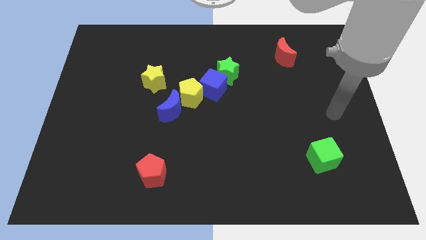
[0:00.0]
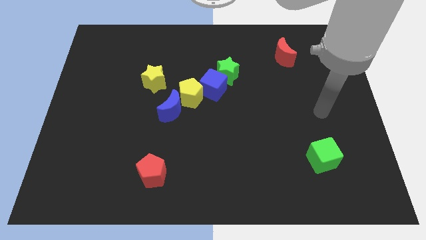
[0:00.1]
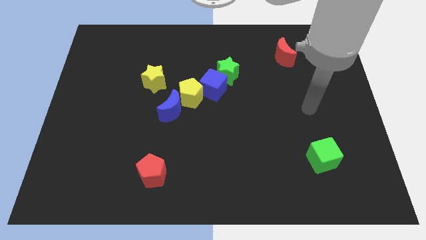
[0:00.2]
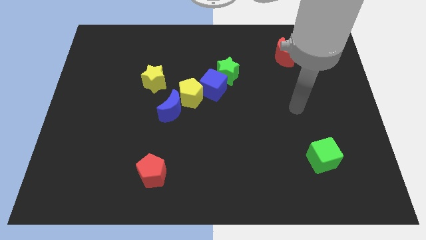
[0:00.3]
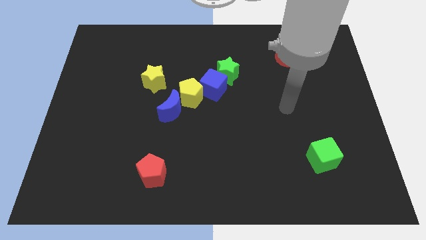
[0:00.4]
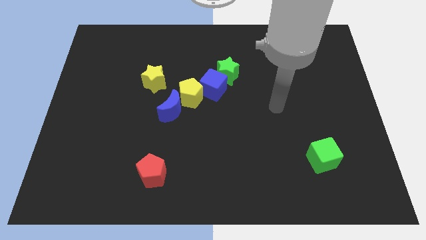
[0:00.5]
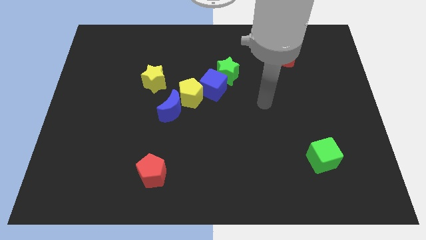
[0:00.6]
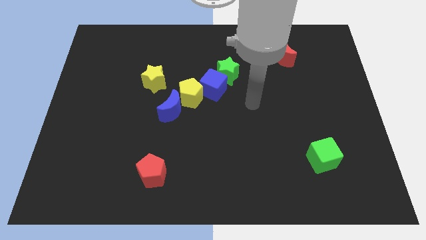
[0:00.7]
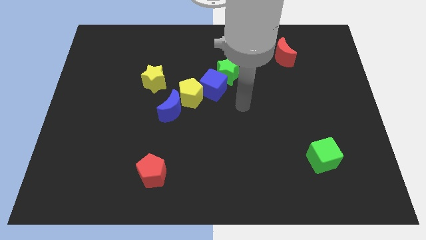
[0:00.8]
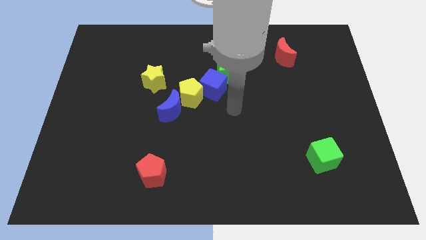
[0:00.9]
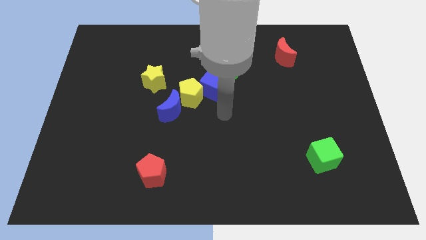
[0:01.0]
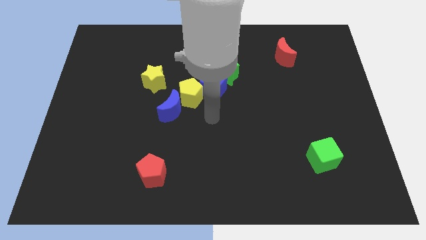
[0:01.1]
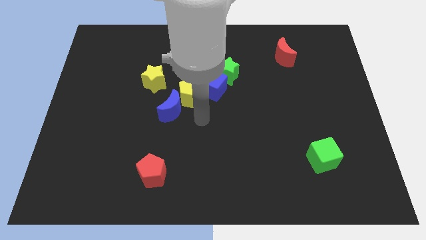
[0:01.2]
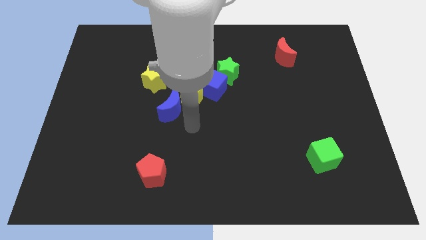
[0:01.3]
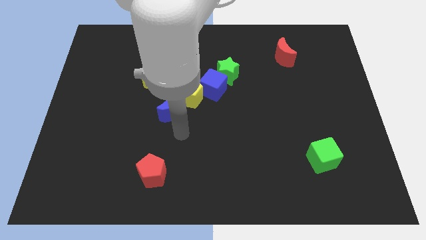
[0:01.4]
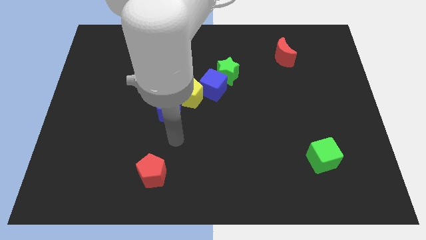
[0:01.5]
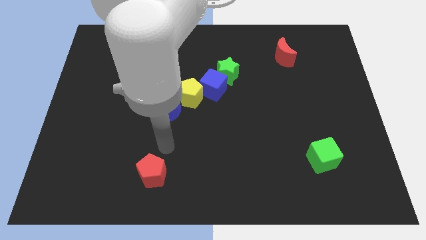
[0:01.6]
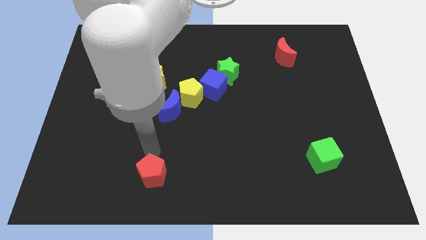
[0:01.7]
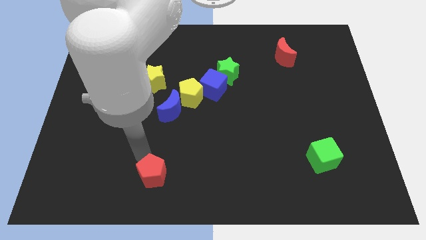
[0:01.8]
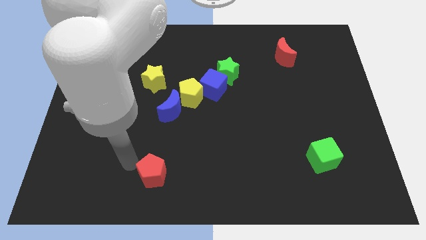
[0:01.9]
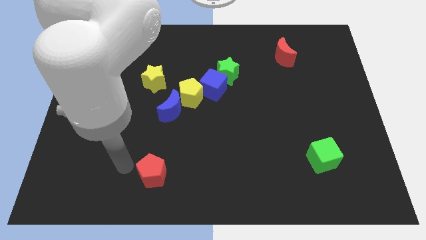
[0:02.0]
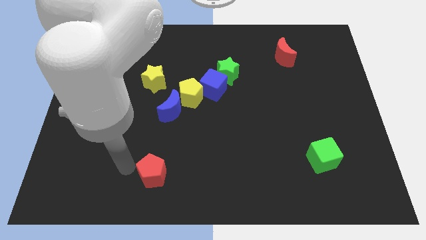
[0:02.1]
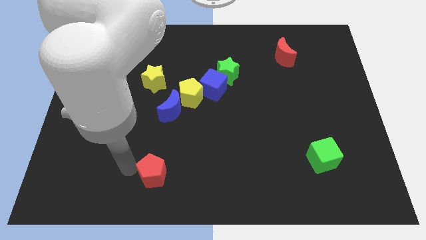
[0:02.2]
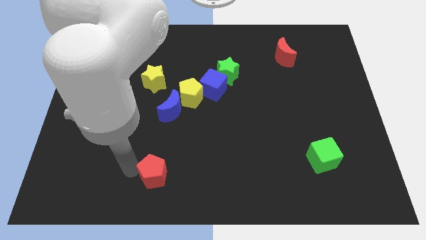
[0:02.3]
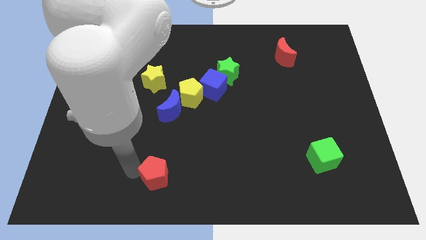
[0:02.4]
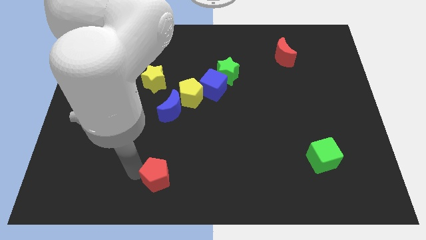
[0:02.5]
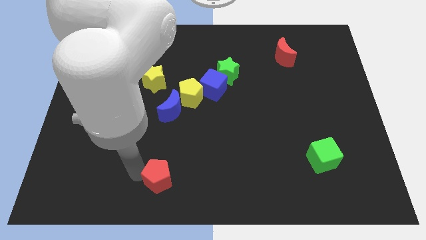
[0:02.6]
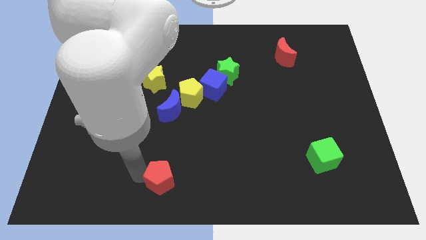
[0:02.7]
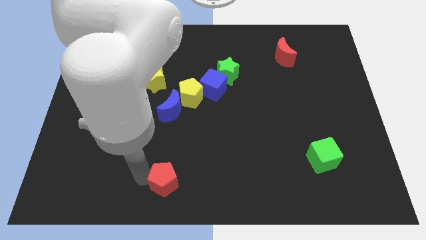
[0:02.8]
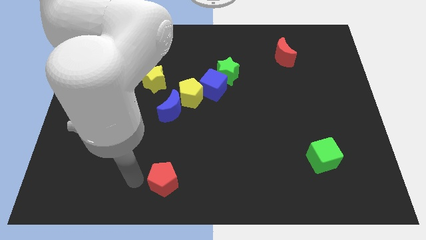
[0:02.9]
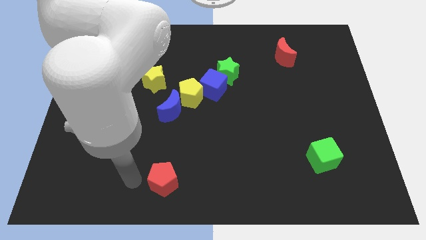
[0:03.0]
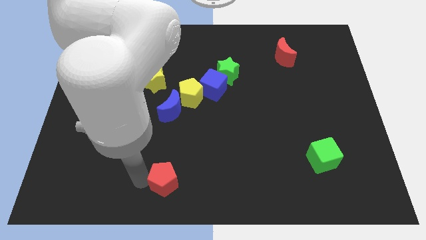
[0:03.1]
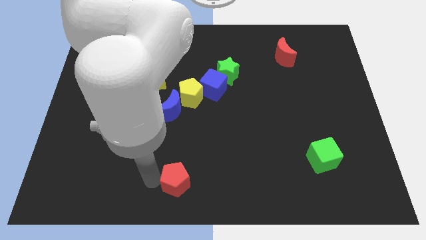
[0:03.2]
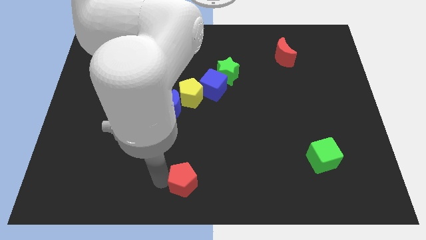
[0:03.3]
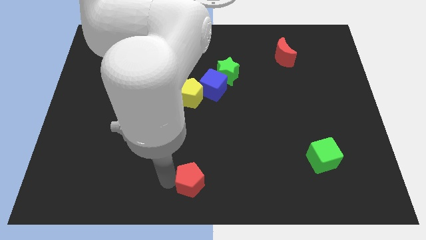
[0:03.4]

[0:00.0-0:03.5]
move the red pentagon a bit to the right

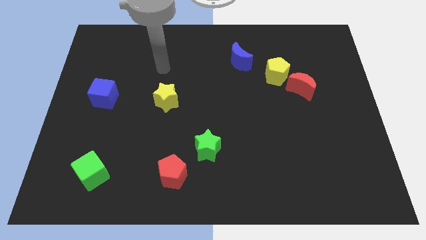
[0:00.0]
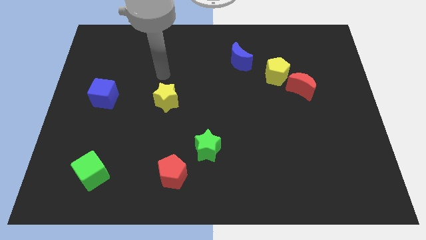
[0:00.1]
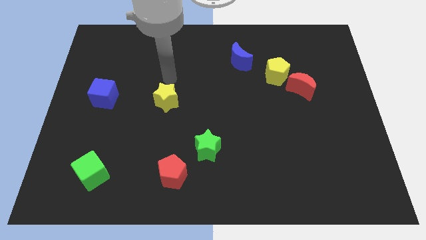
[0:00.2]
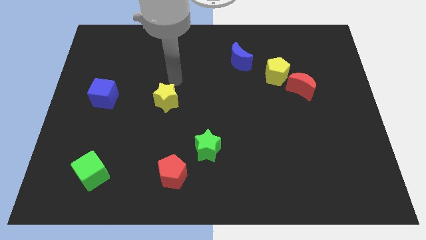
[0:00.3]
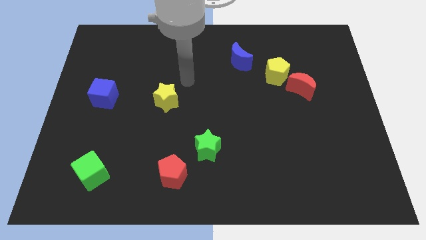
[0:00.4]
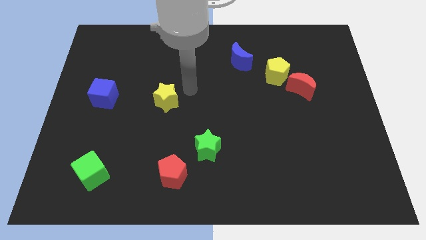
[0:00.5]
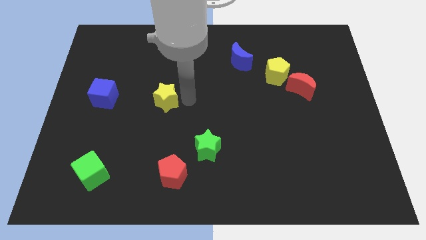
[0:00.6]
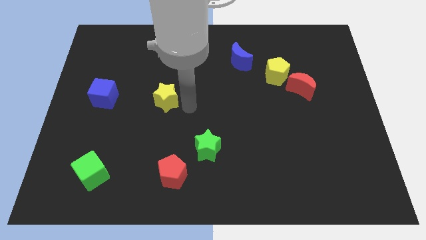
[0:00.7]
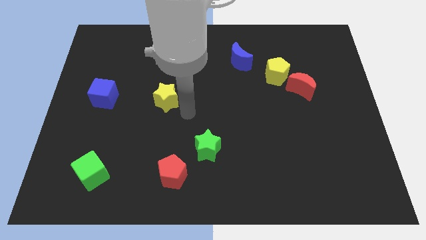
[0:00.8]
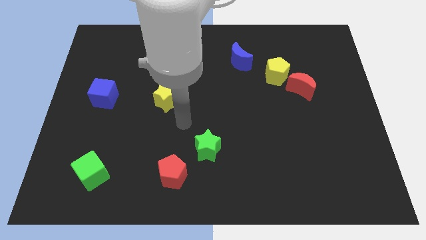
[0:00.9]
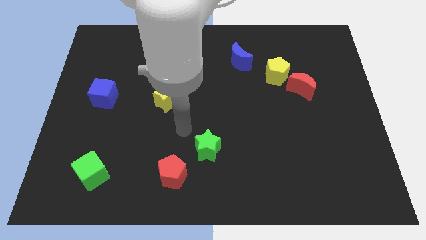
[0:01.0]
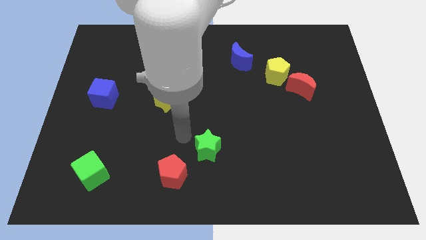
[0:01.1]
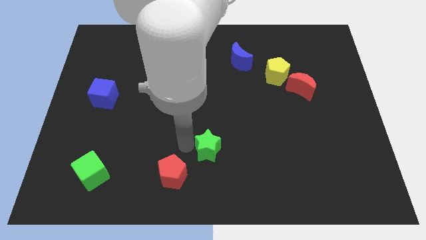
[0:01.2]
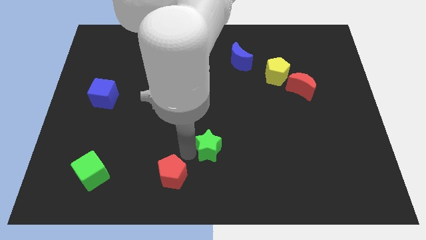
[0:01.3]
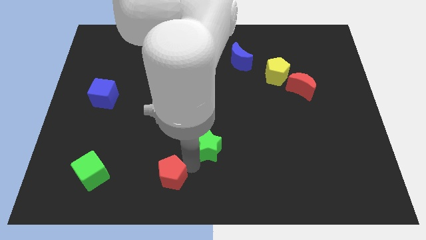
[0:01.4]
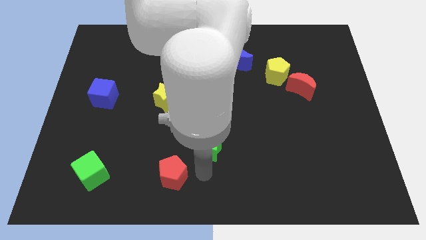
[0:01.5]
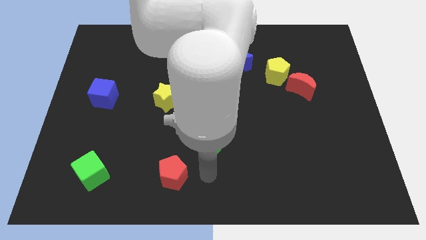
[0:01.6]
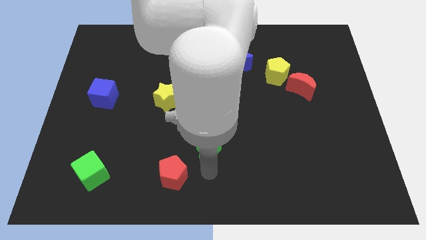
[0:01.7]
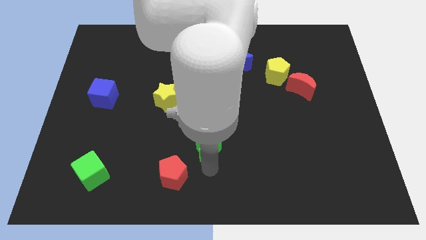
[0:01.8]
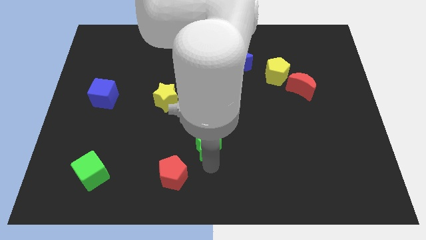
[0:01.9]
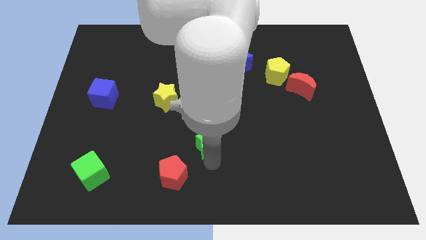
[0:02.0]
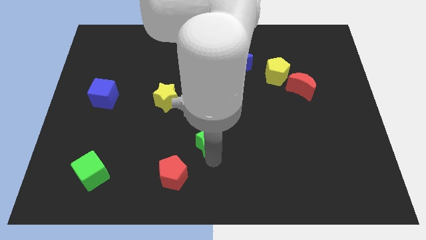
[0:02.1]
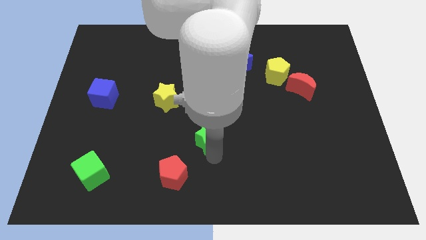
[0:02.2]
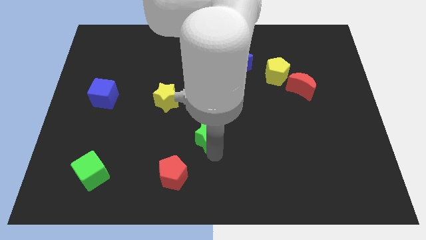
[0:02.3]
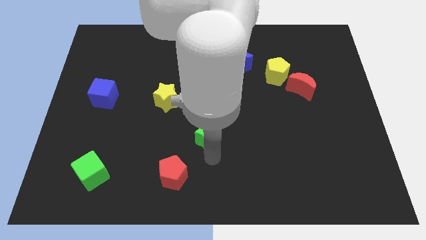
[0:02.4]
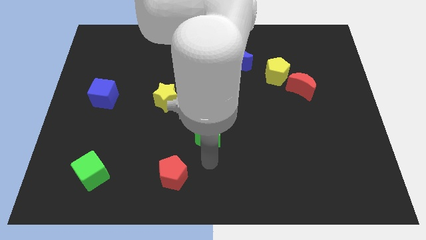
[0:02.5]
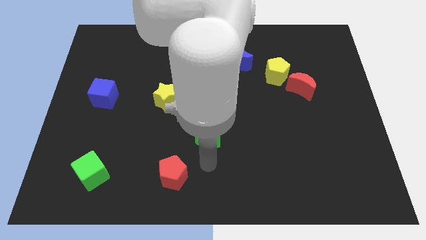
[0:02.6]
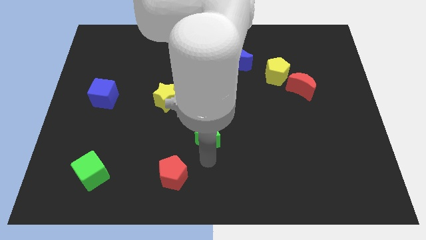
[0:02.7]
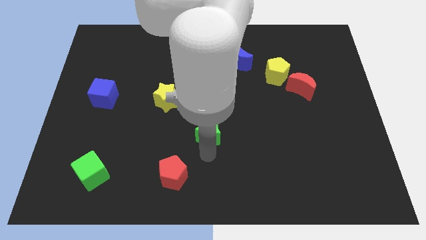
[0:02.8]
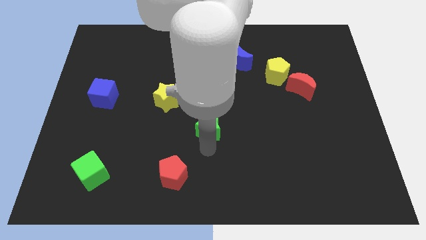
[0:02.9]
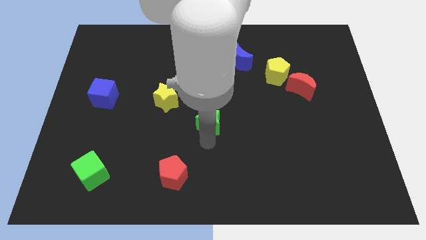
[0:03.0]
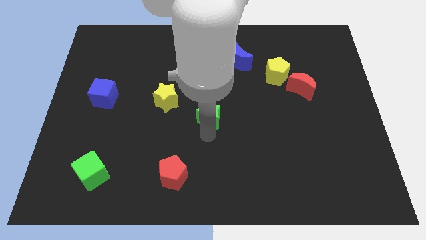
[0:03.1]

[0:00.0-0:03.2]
slightly push the green star upwards

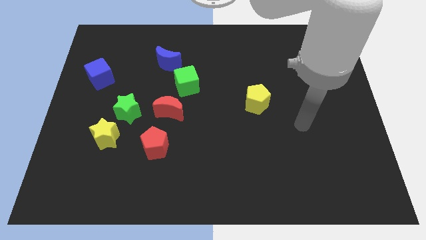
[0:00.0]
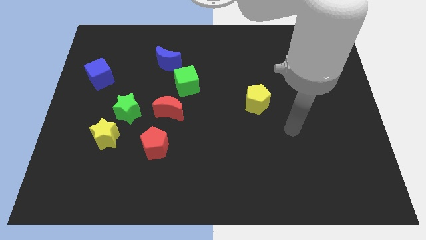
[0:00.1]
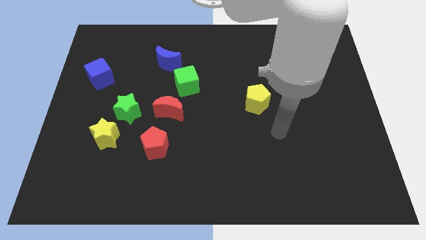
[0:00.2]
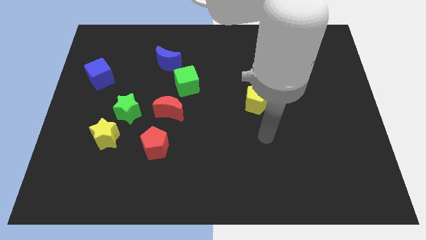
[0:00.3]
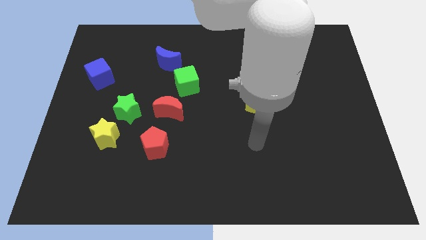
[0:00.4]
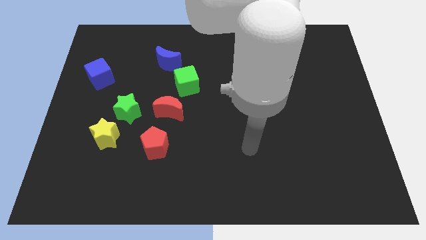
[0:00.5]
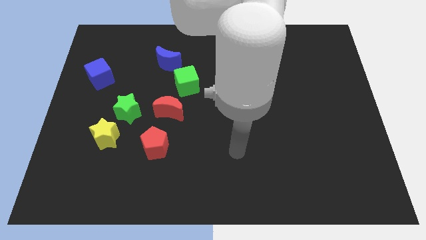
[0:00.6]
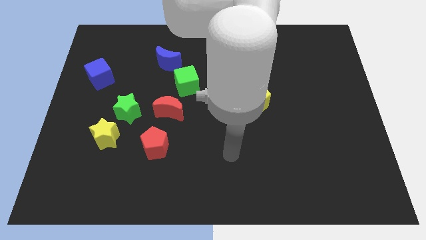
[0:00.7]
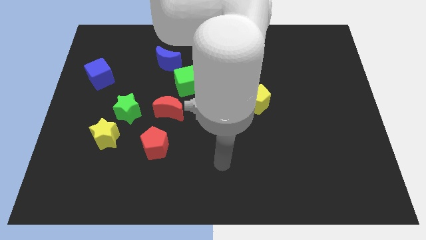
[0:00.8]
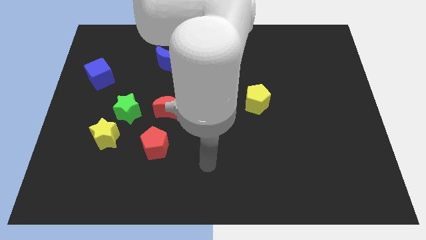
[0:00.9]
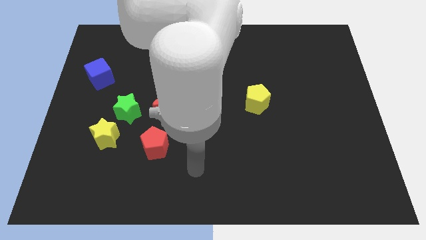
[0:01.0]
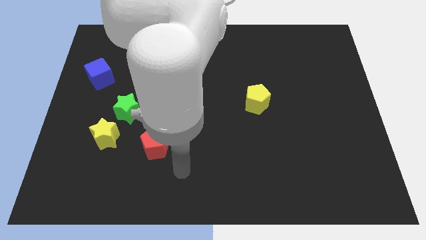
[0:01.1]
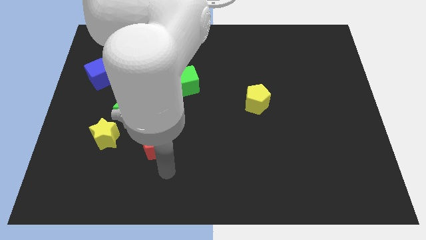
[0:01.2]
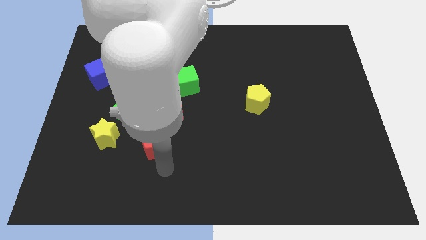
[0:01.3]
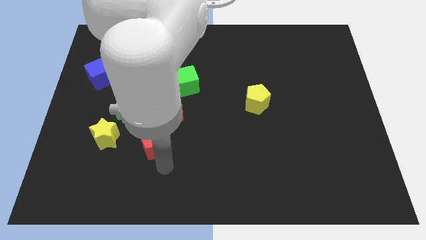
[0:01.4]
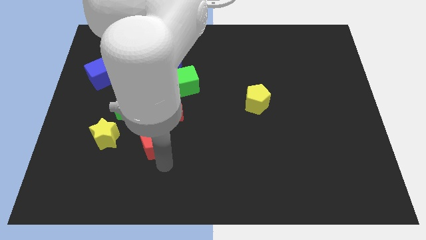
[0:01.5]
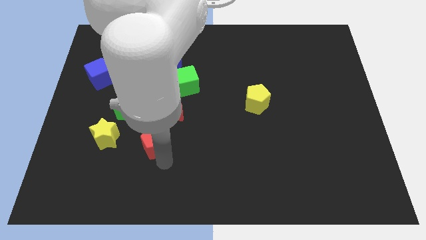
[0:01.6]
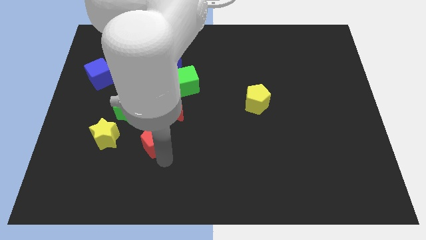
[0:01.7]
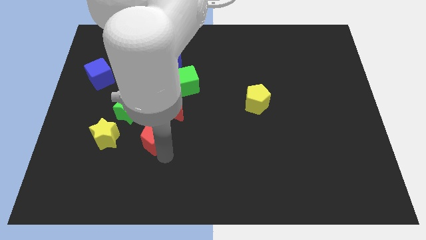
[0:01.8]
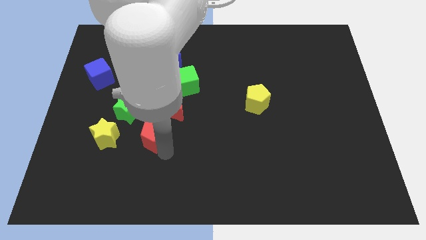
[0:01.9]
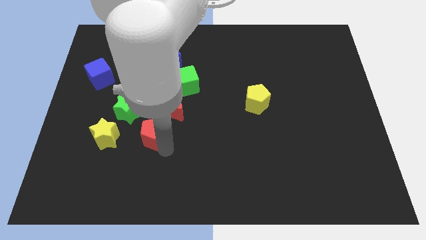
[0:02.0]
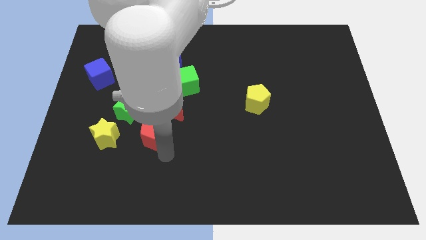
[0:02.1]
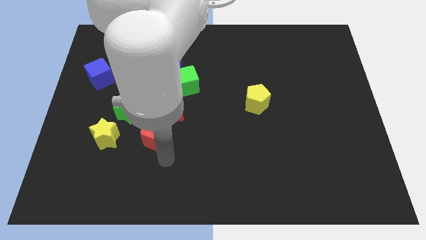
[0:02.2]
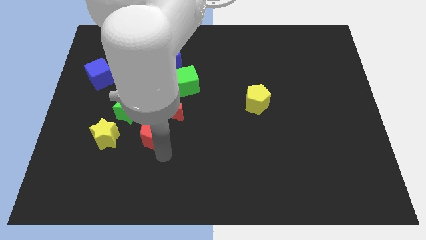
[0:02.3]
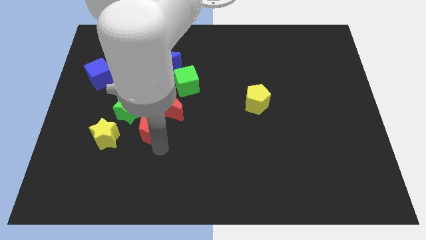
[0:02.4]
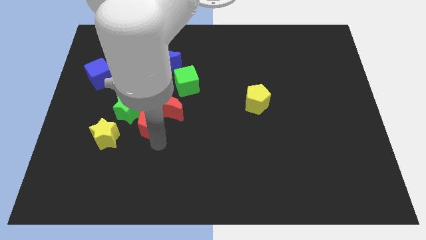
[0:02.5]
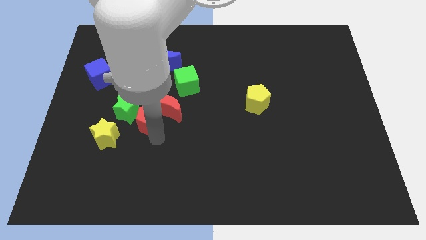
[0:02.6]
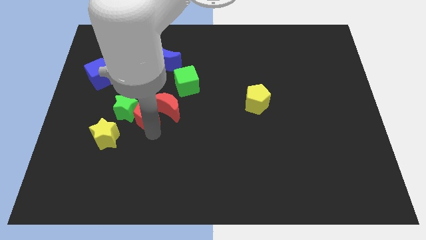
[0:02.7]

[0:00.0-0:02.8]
slightly slide the red pentagon up
